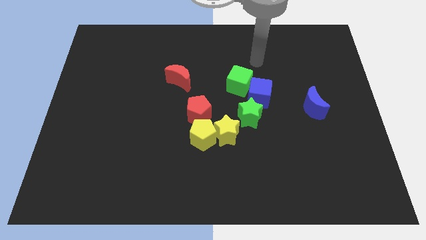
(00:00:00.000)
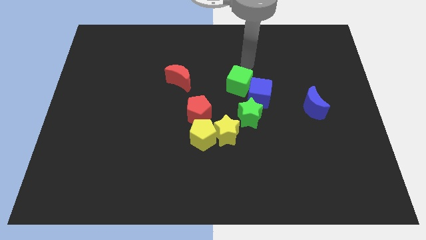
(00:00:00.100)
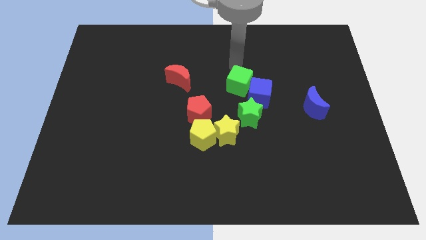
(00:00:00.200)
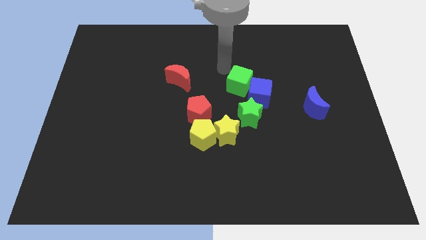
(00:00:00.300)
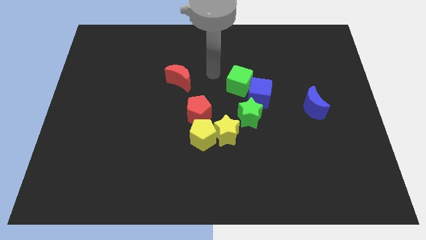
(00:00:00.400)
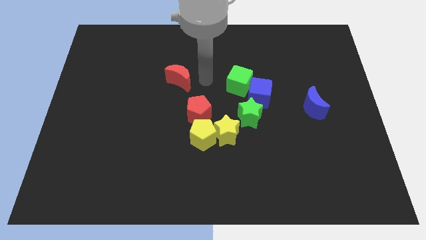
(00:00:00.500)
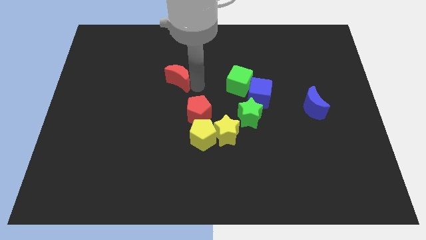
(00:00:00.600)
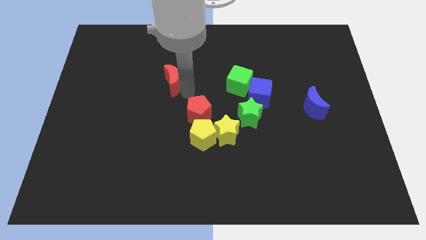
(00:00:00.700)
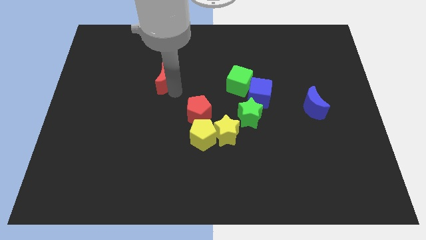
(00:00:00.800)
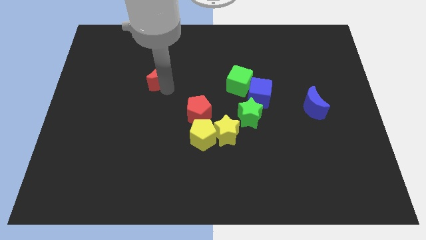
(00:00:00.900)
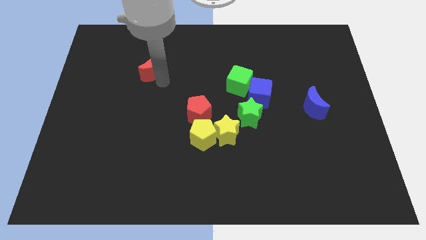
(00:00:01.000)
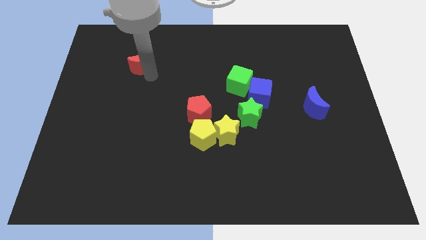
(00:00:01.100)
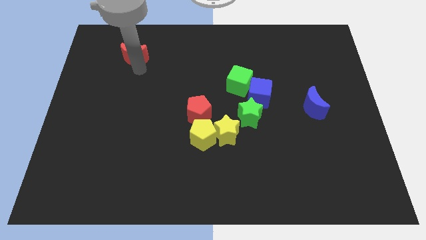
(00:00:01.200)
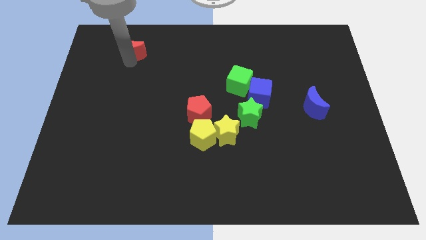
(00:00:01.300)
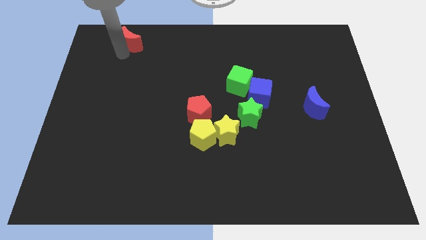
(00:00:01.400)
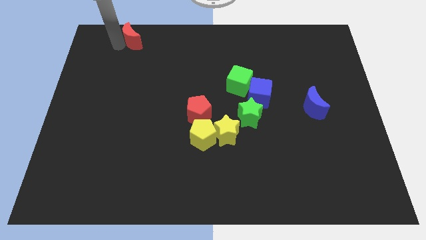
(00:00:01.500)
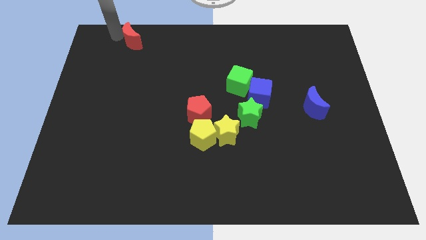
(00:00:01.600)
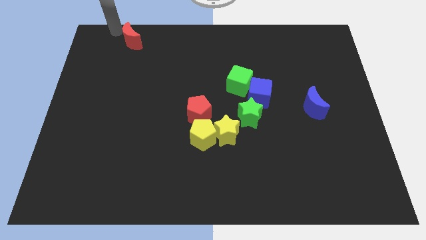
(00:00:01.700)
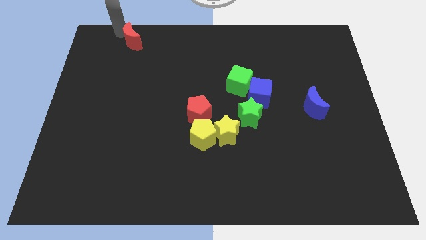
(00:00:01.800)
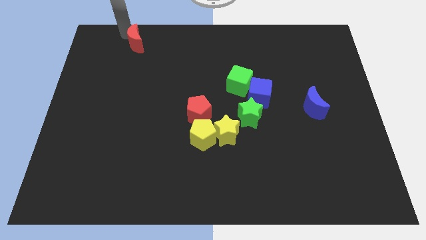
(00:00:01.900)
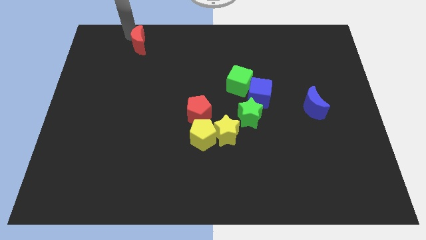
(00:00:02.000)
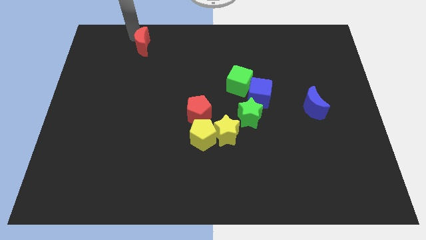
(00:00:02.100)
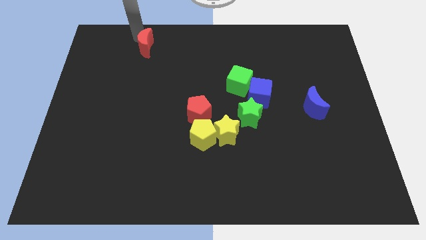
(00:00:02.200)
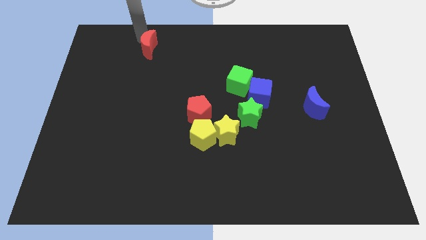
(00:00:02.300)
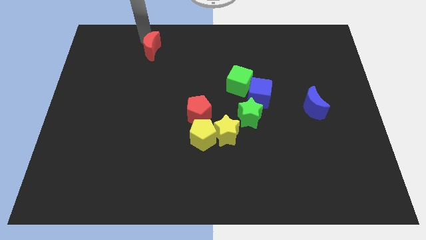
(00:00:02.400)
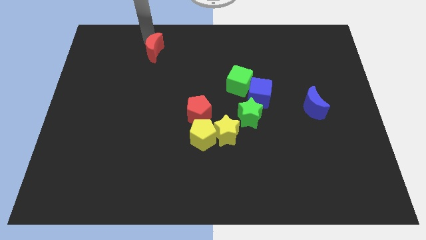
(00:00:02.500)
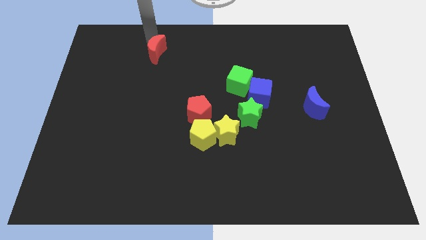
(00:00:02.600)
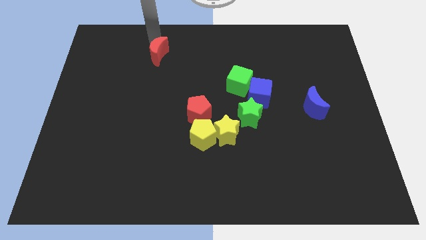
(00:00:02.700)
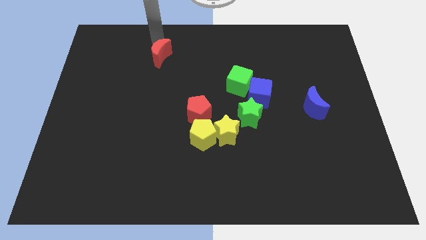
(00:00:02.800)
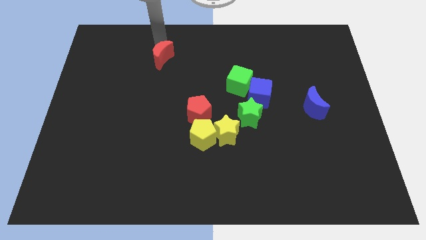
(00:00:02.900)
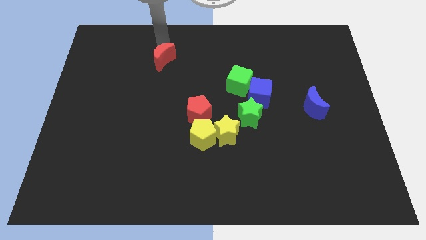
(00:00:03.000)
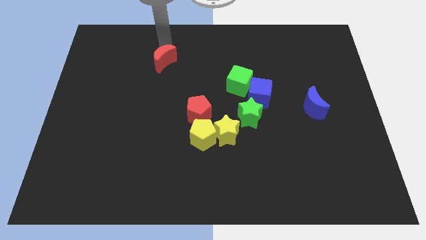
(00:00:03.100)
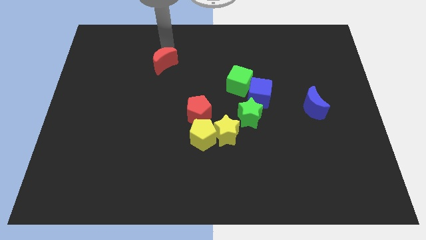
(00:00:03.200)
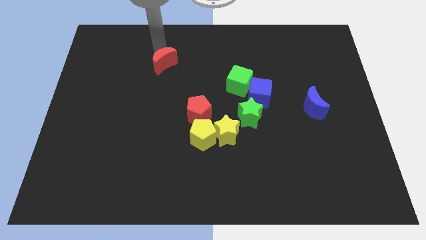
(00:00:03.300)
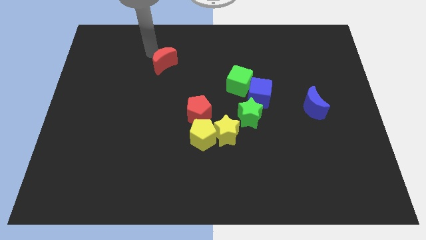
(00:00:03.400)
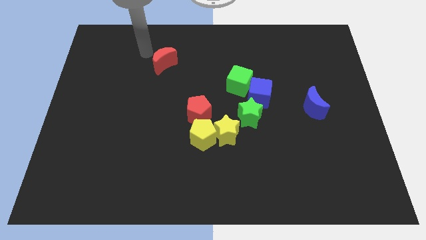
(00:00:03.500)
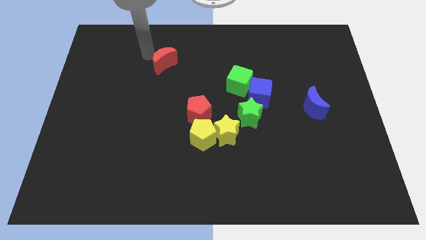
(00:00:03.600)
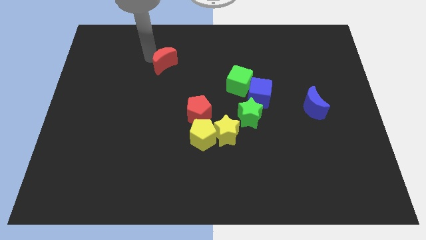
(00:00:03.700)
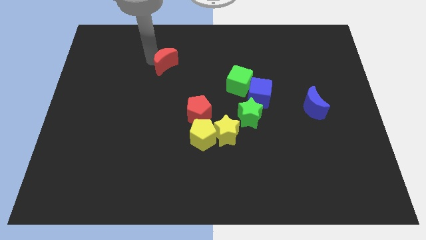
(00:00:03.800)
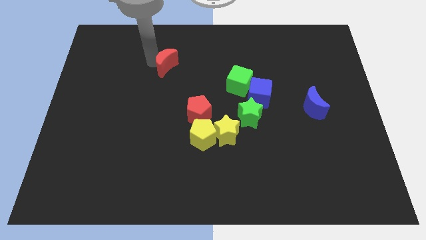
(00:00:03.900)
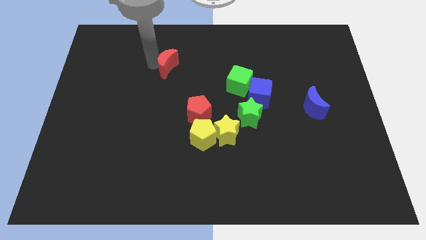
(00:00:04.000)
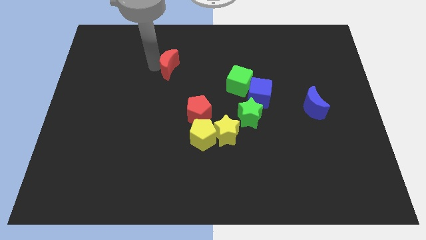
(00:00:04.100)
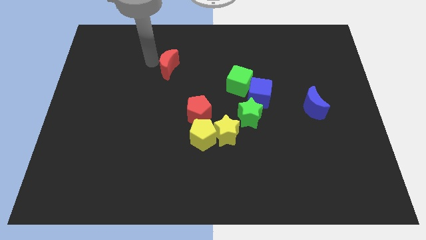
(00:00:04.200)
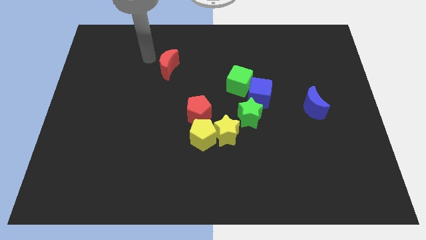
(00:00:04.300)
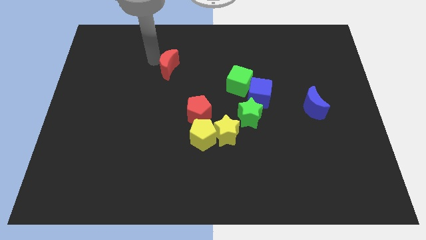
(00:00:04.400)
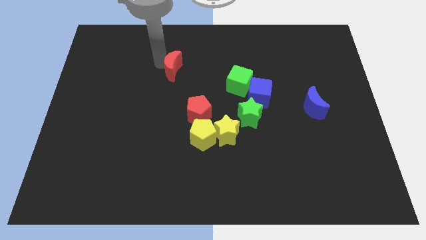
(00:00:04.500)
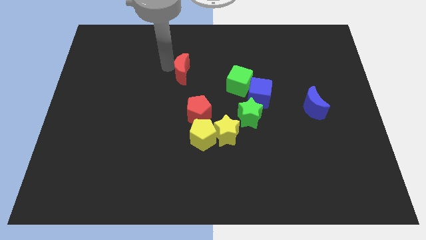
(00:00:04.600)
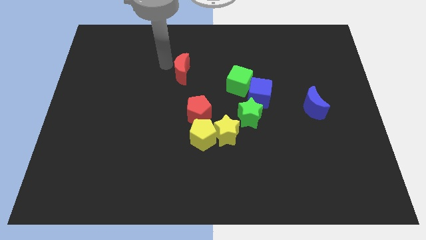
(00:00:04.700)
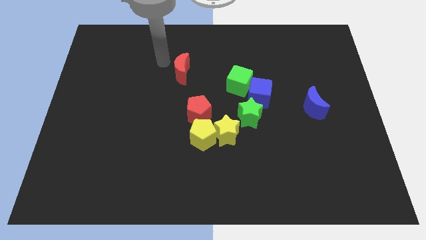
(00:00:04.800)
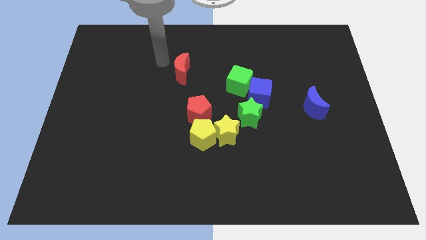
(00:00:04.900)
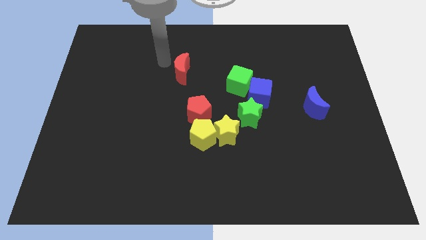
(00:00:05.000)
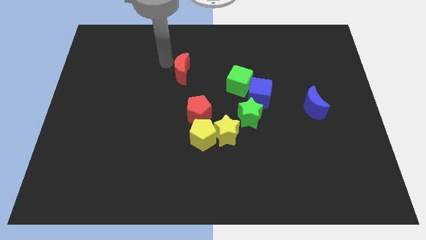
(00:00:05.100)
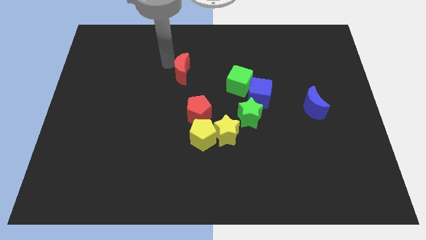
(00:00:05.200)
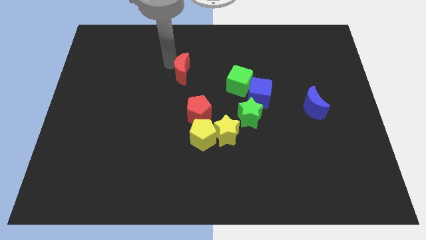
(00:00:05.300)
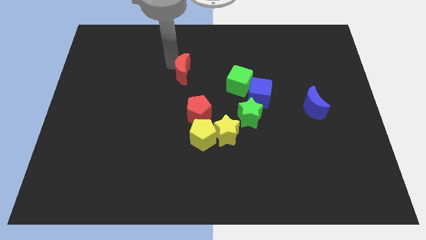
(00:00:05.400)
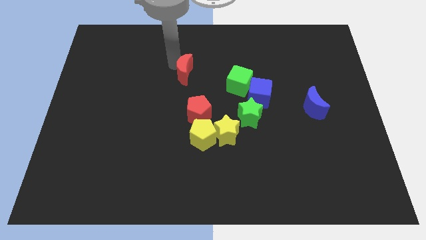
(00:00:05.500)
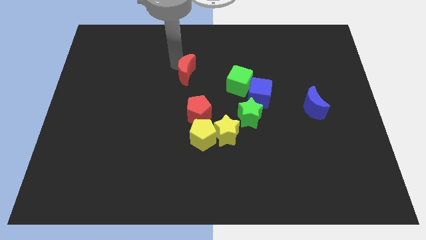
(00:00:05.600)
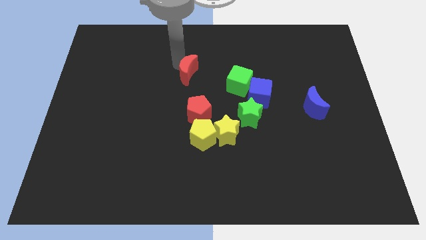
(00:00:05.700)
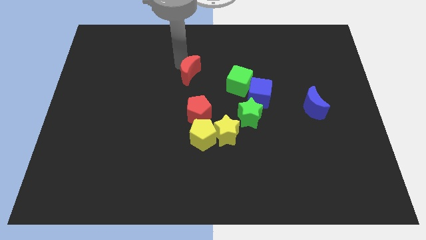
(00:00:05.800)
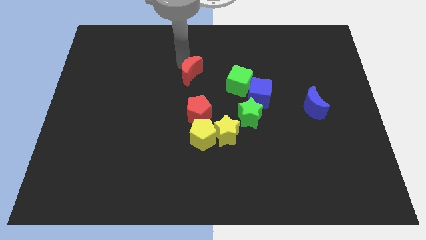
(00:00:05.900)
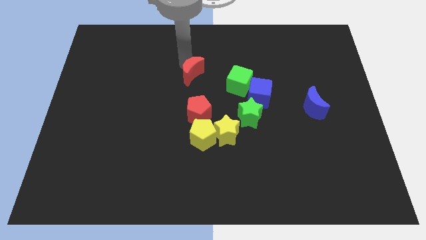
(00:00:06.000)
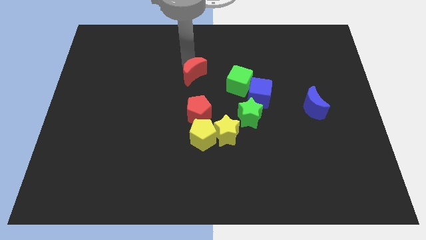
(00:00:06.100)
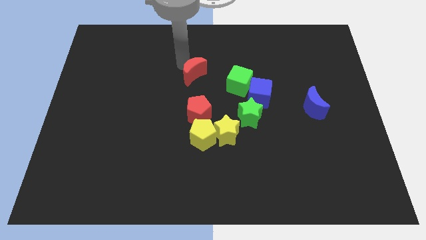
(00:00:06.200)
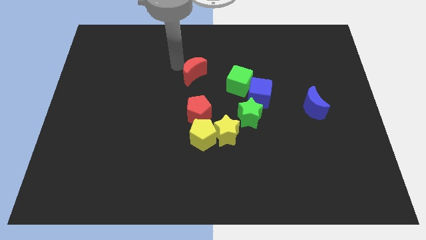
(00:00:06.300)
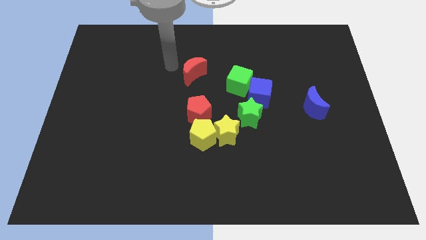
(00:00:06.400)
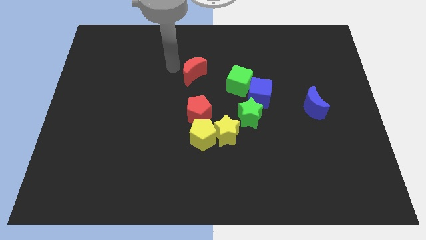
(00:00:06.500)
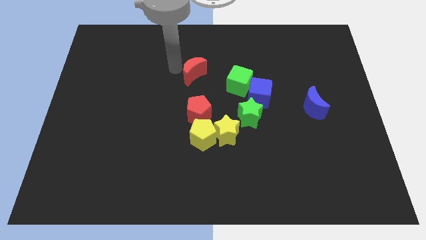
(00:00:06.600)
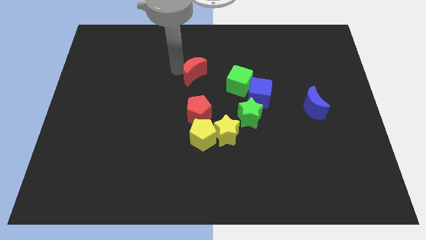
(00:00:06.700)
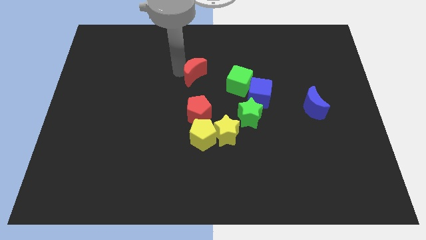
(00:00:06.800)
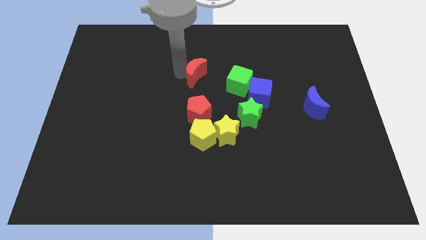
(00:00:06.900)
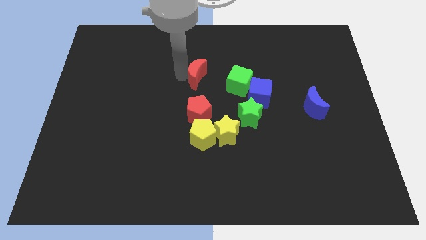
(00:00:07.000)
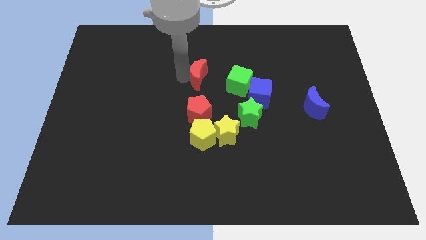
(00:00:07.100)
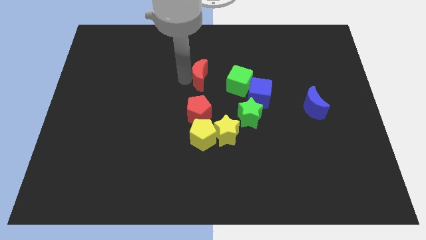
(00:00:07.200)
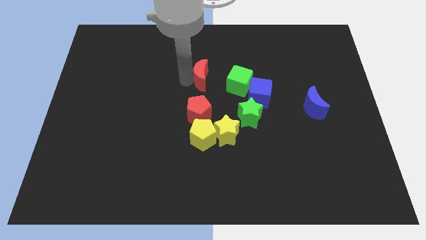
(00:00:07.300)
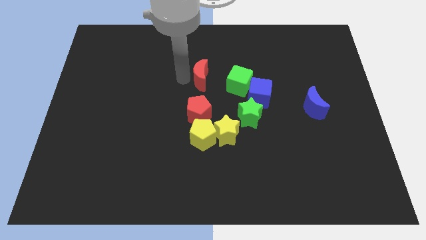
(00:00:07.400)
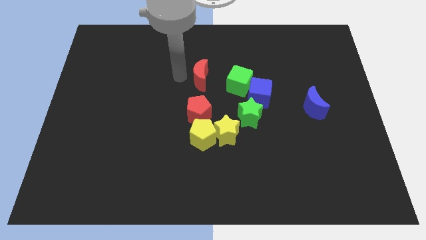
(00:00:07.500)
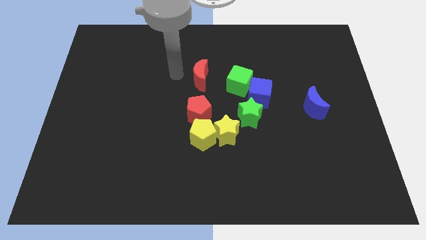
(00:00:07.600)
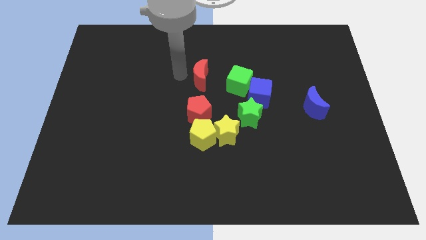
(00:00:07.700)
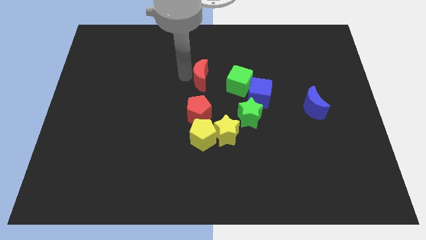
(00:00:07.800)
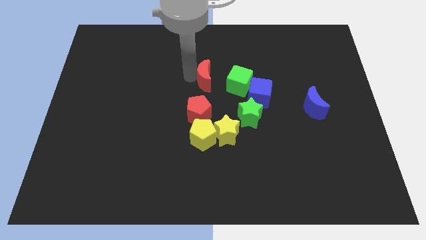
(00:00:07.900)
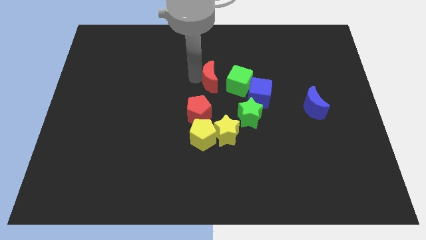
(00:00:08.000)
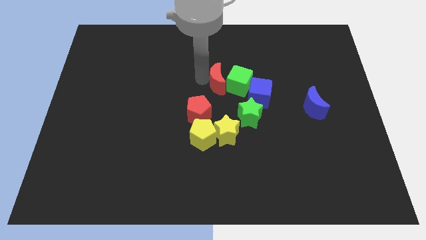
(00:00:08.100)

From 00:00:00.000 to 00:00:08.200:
push the red moon next to the green cube
